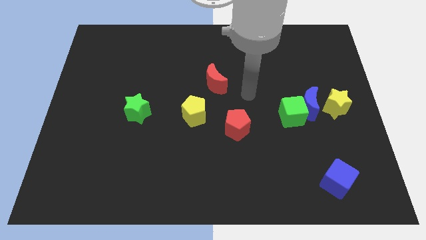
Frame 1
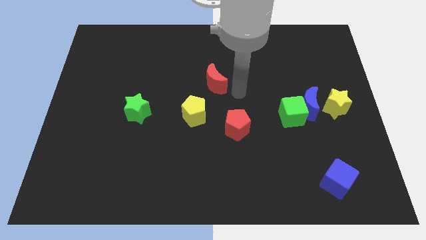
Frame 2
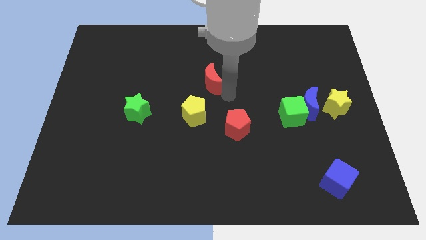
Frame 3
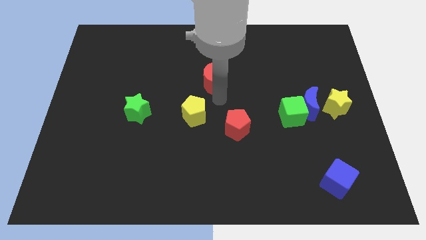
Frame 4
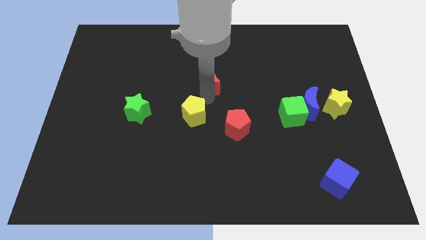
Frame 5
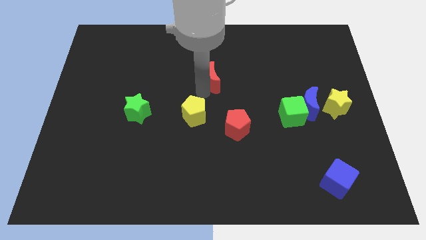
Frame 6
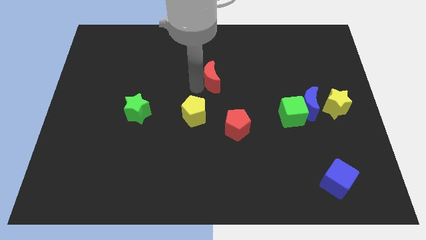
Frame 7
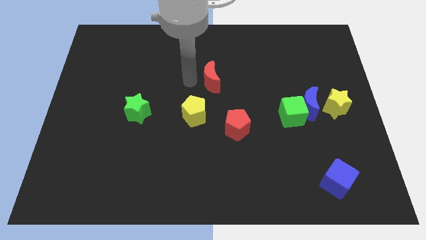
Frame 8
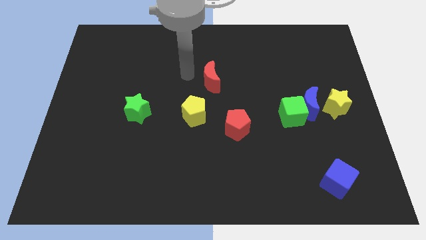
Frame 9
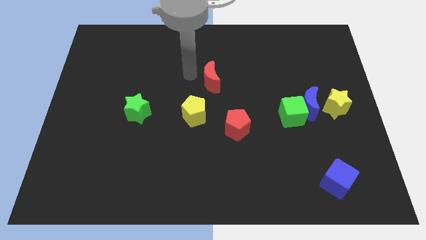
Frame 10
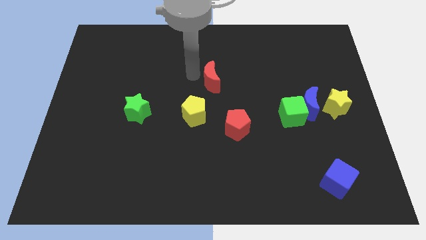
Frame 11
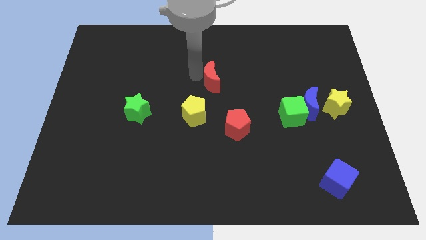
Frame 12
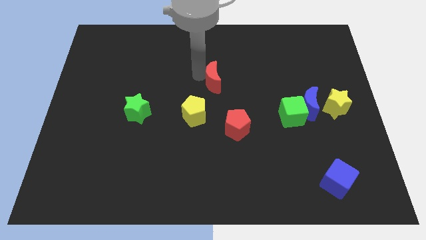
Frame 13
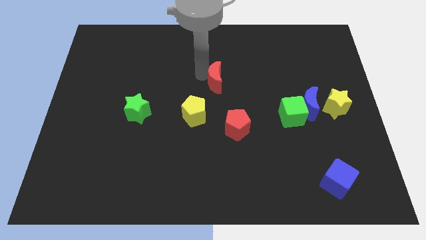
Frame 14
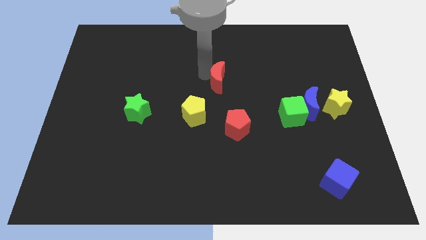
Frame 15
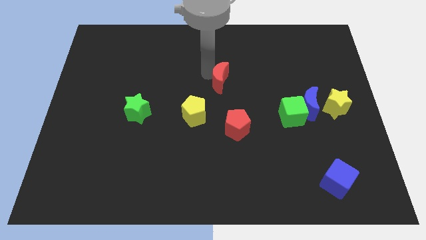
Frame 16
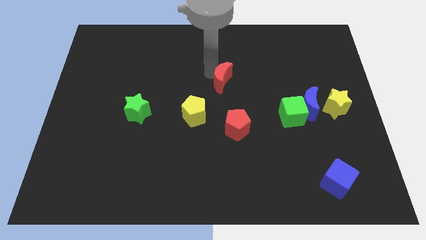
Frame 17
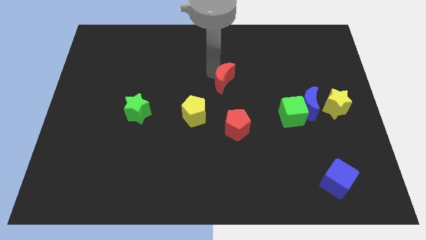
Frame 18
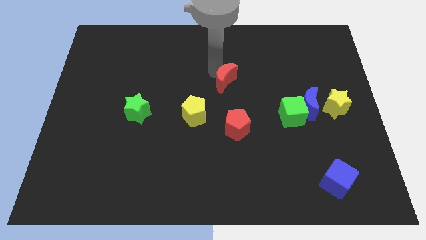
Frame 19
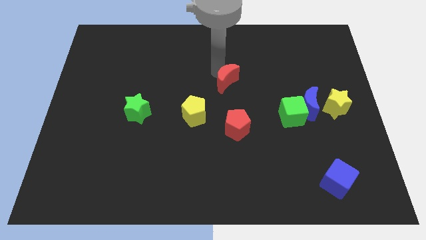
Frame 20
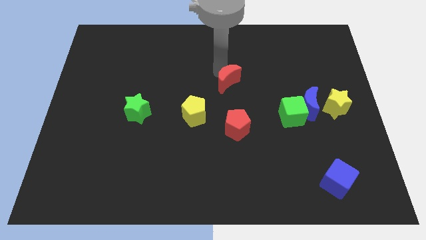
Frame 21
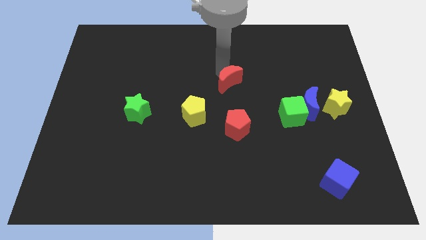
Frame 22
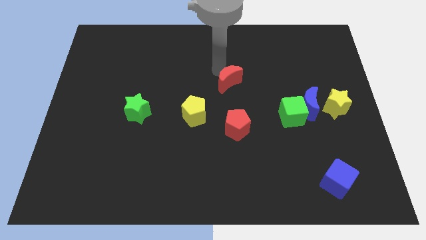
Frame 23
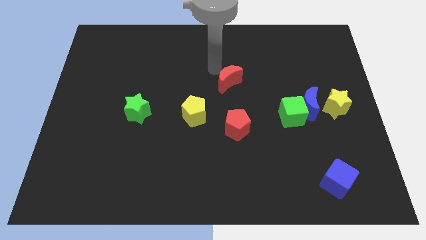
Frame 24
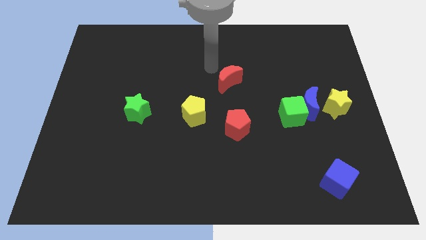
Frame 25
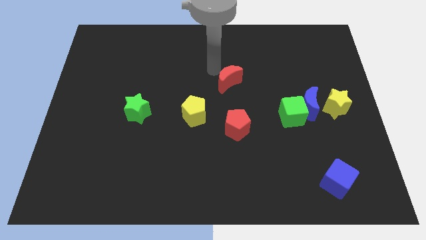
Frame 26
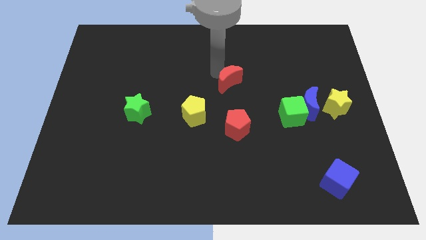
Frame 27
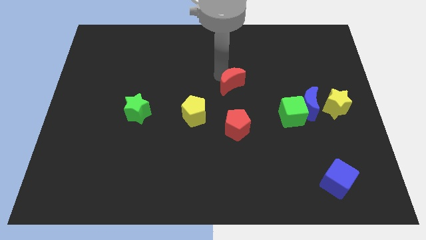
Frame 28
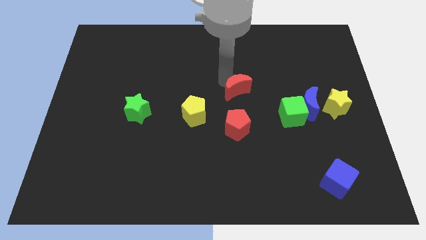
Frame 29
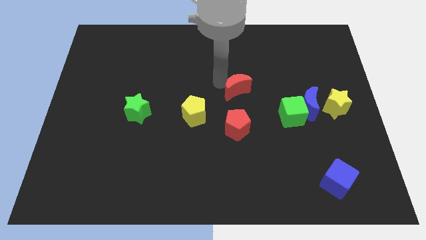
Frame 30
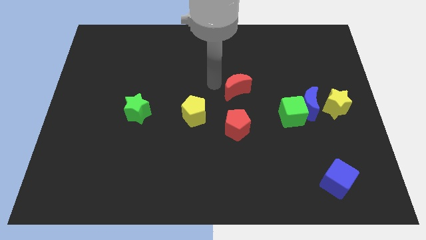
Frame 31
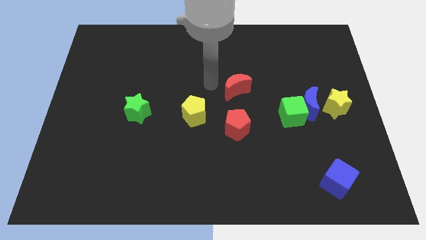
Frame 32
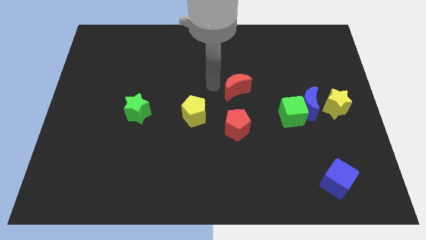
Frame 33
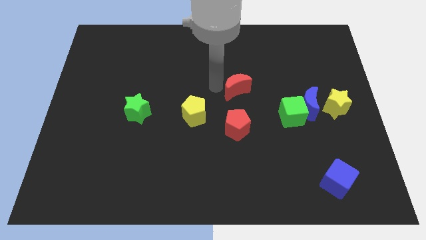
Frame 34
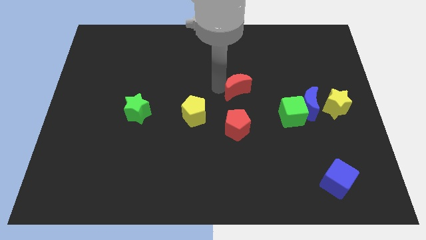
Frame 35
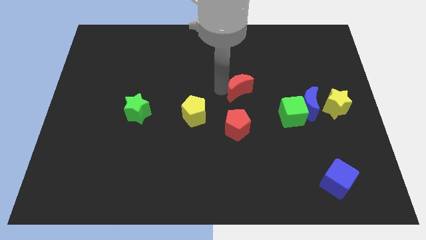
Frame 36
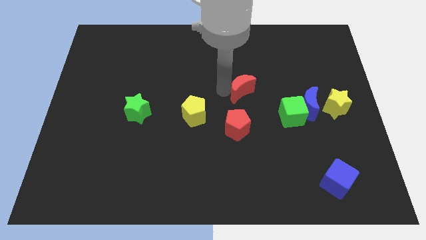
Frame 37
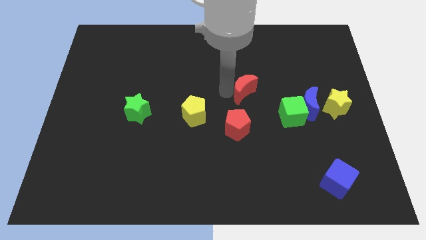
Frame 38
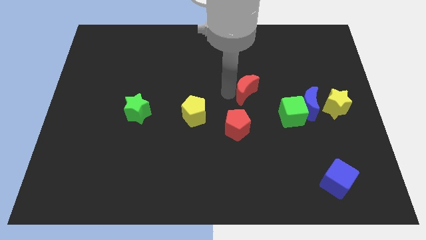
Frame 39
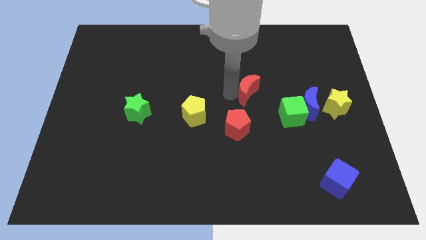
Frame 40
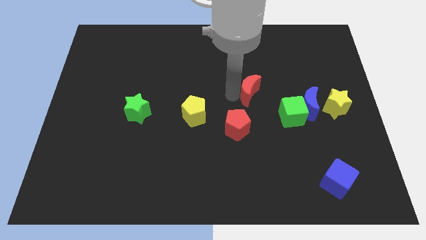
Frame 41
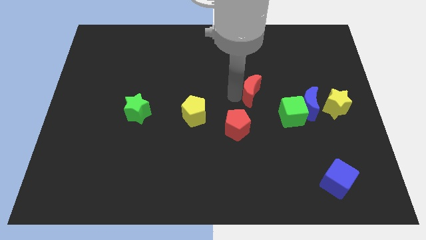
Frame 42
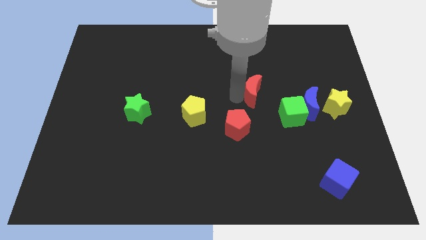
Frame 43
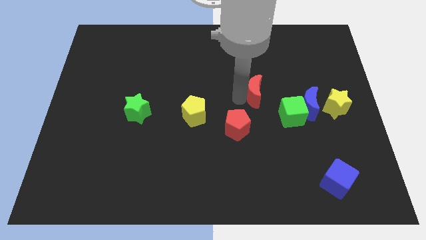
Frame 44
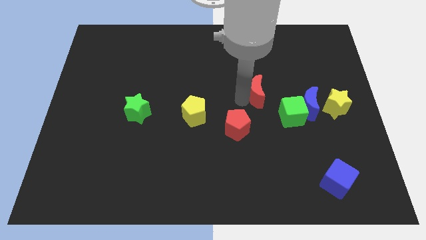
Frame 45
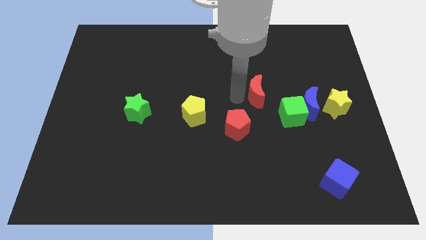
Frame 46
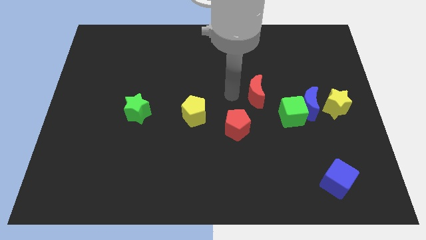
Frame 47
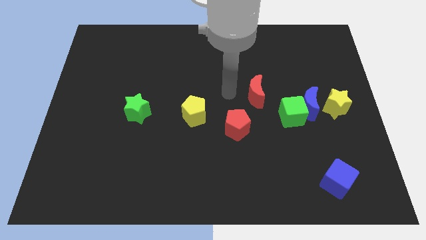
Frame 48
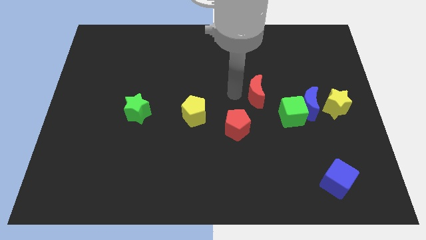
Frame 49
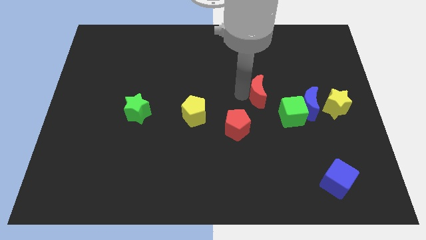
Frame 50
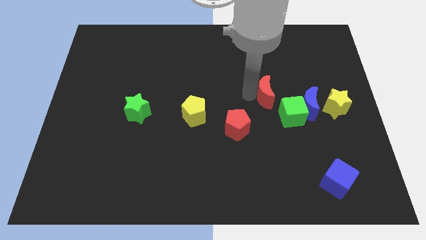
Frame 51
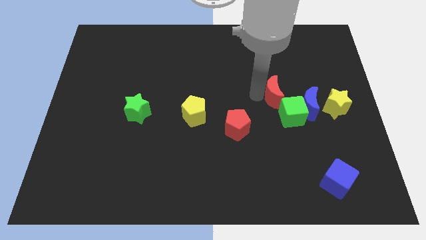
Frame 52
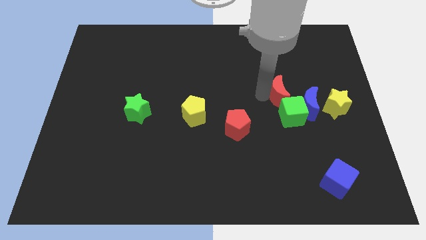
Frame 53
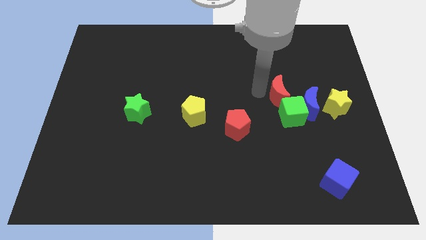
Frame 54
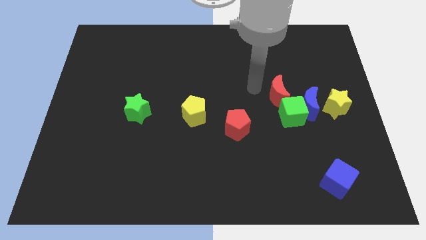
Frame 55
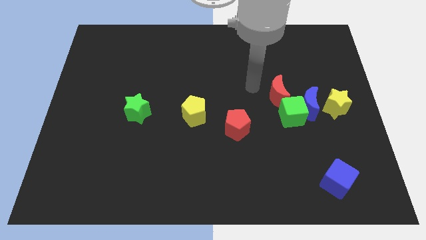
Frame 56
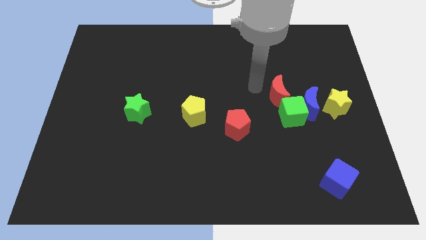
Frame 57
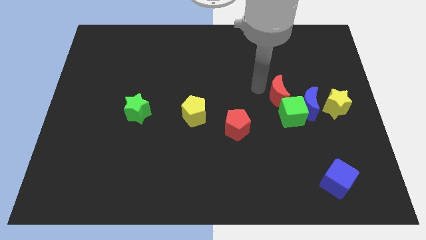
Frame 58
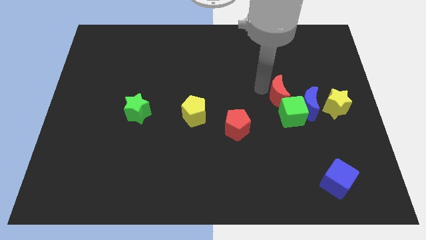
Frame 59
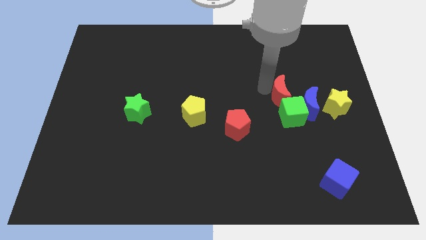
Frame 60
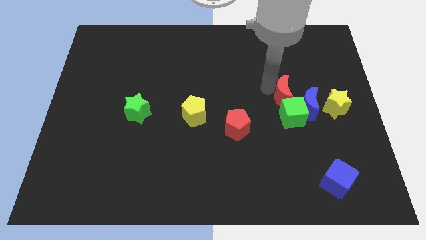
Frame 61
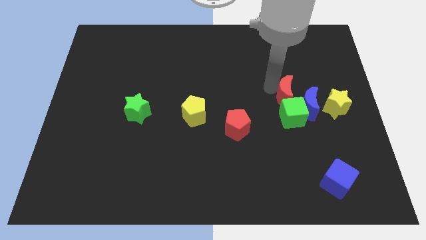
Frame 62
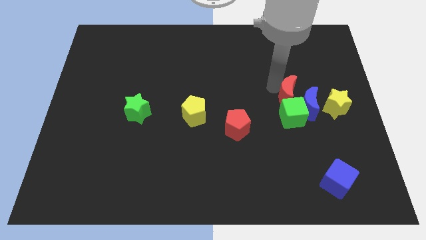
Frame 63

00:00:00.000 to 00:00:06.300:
move the red moon to the blue moon
